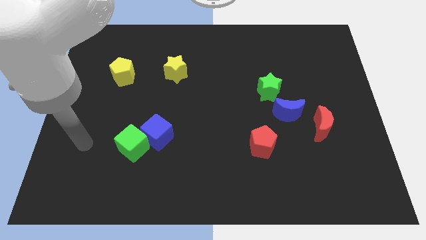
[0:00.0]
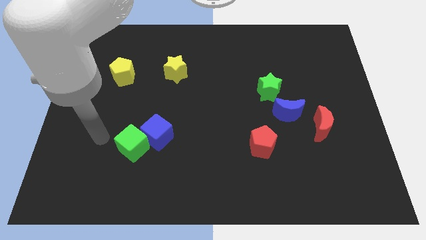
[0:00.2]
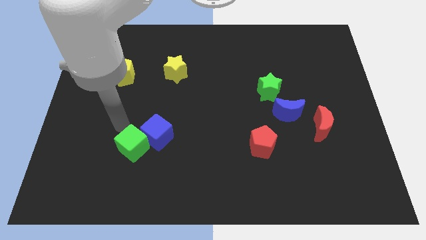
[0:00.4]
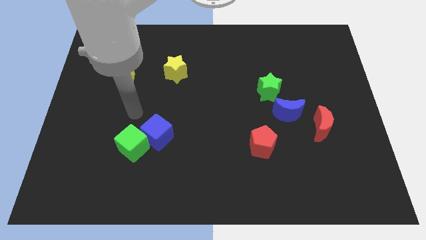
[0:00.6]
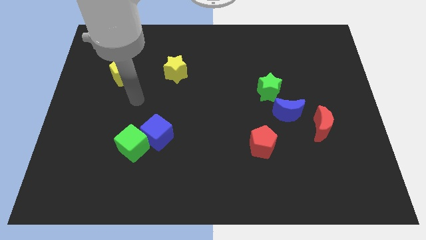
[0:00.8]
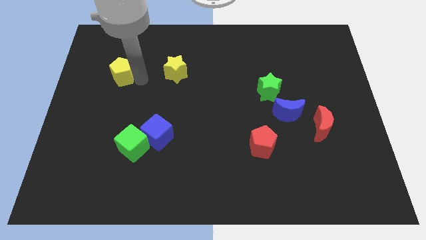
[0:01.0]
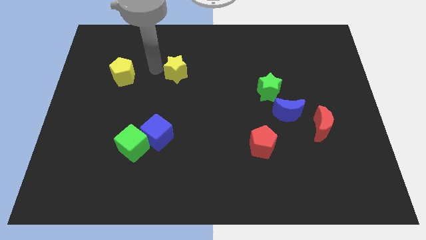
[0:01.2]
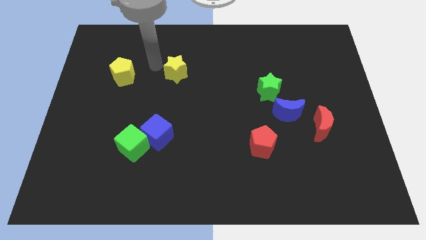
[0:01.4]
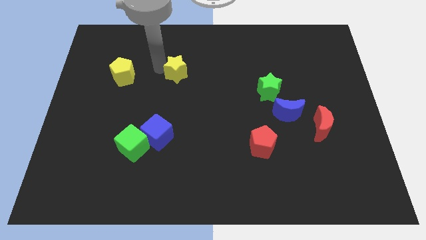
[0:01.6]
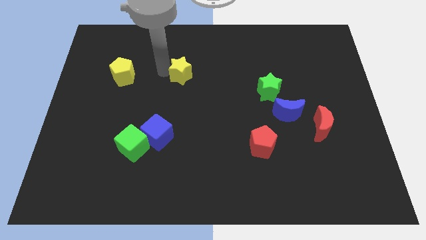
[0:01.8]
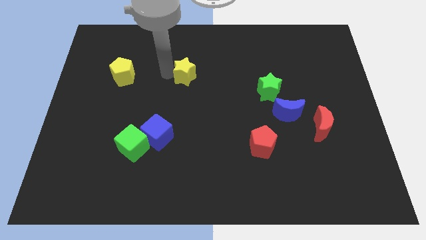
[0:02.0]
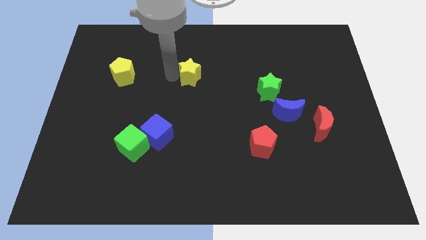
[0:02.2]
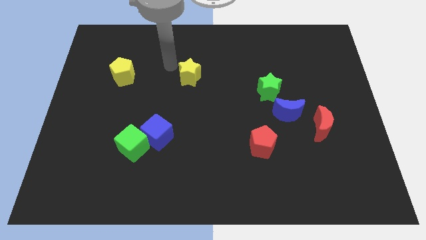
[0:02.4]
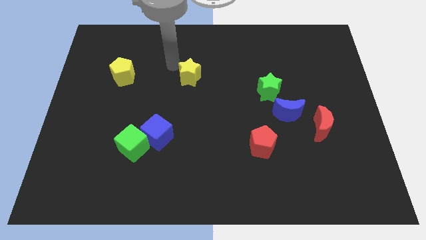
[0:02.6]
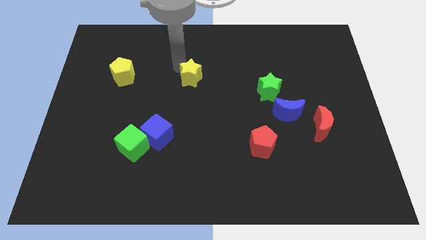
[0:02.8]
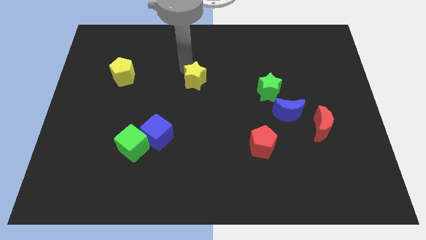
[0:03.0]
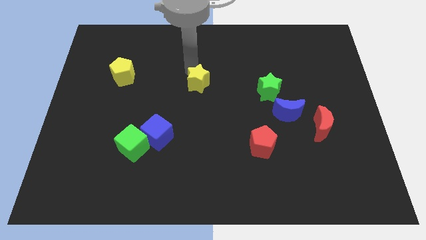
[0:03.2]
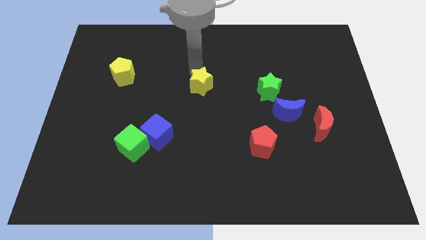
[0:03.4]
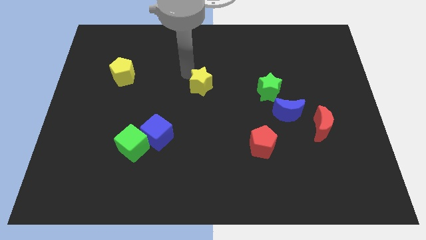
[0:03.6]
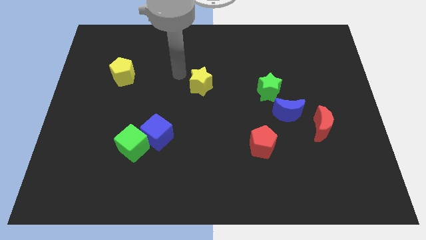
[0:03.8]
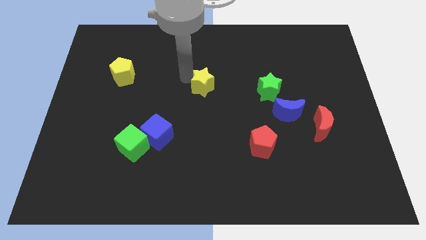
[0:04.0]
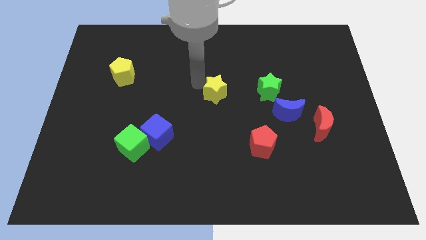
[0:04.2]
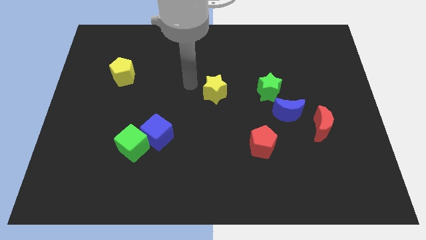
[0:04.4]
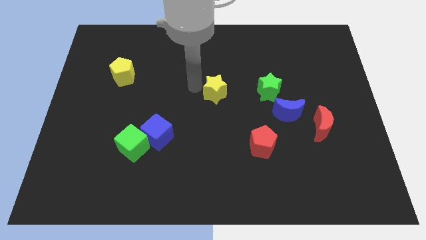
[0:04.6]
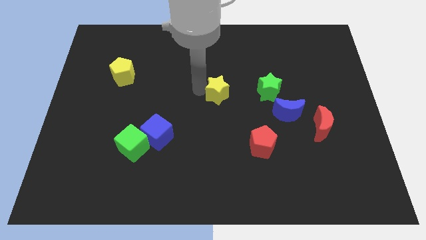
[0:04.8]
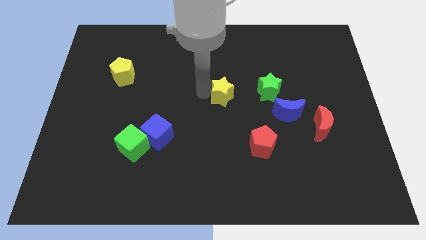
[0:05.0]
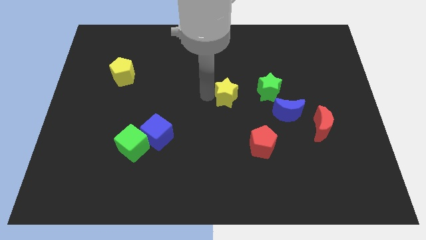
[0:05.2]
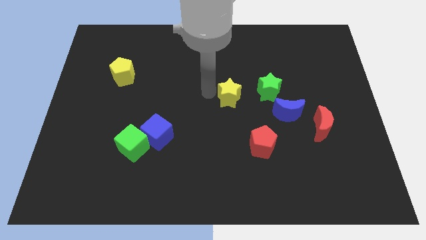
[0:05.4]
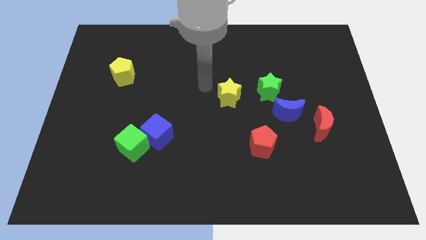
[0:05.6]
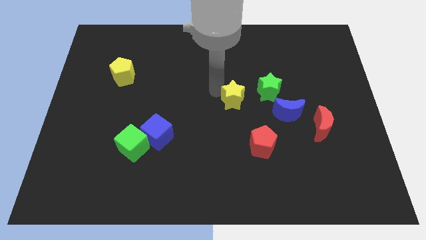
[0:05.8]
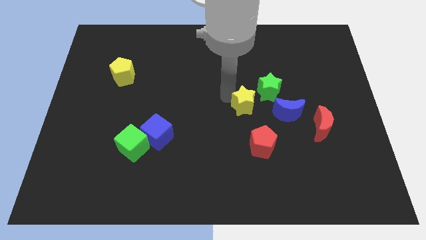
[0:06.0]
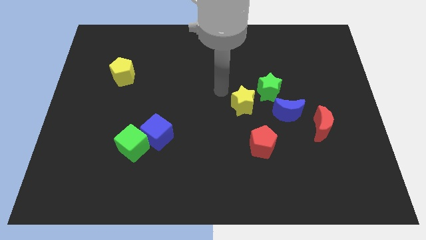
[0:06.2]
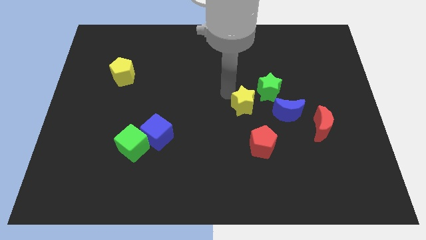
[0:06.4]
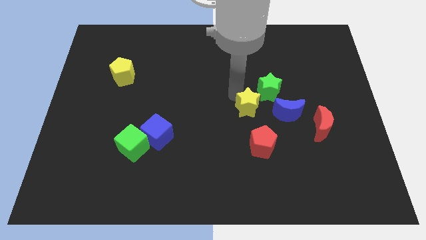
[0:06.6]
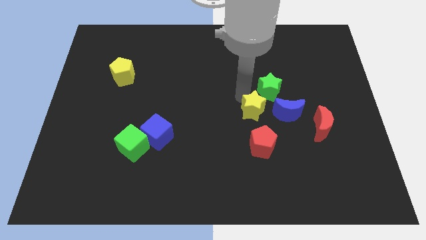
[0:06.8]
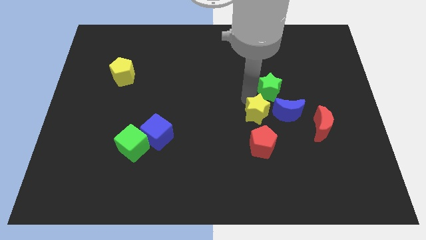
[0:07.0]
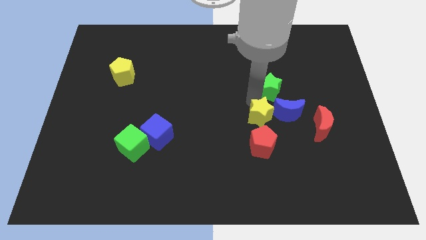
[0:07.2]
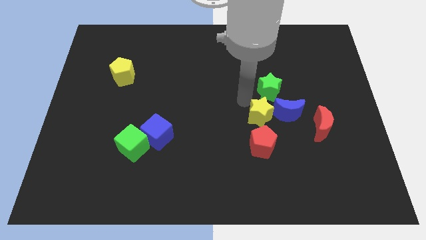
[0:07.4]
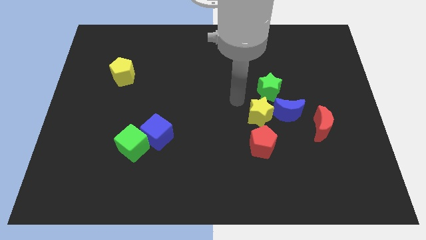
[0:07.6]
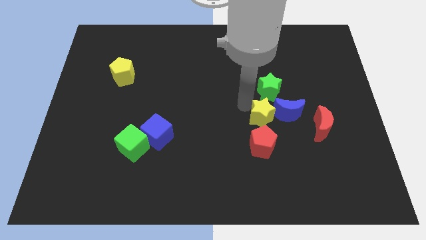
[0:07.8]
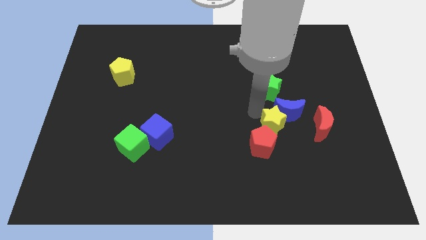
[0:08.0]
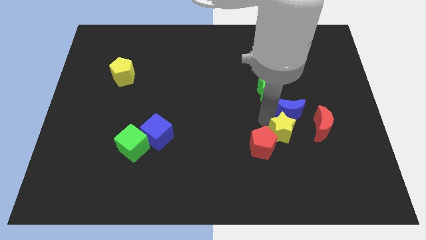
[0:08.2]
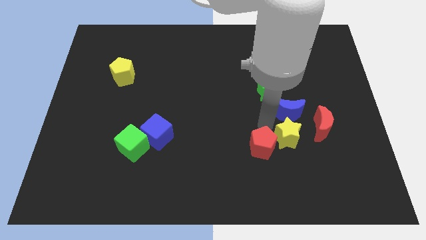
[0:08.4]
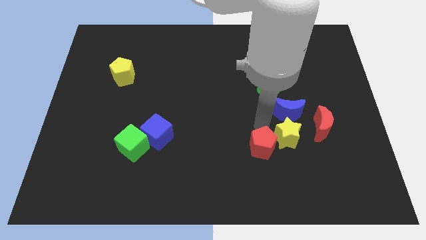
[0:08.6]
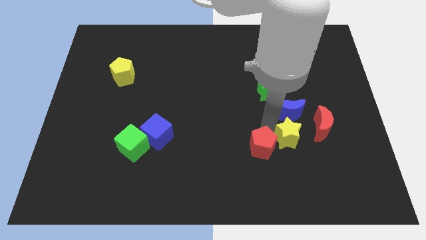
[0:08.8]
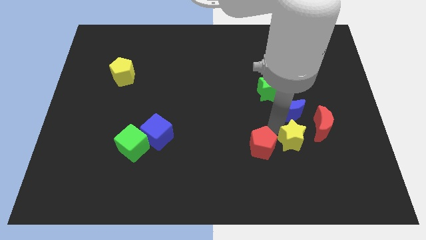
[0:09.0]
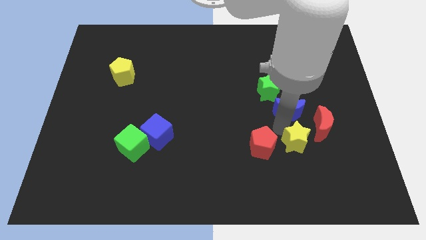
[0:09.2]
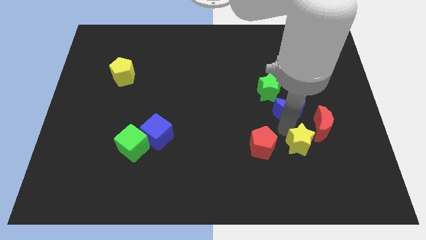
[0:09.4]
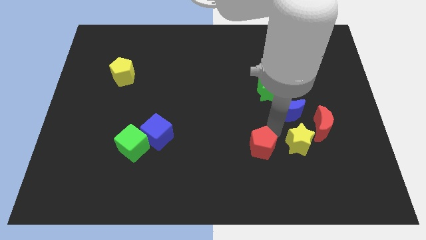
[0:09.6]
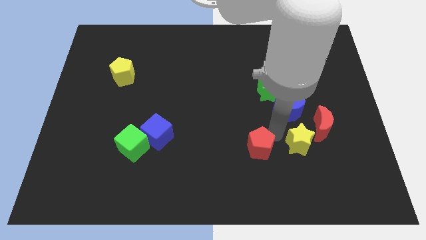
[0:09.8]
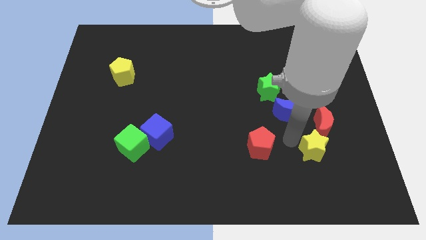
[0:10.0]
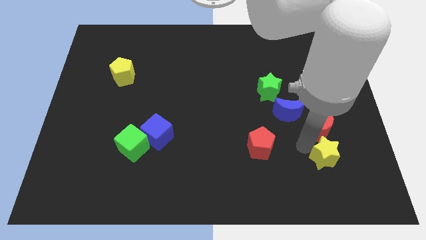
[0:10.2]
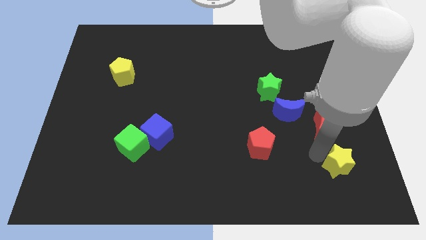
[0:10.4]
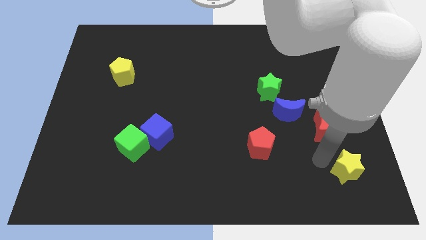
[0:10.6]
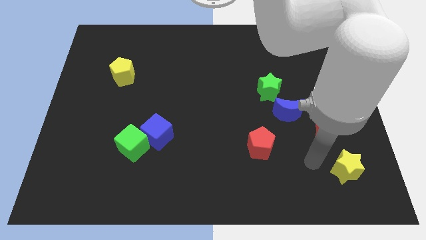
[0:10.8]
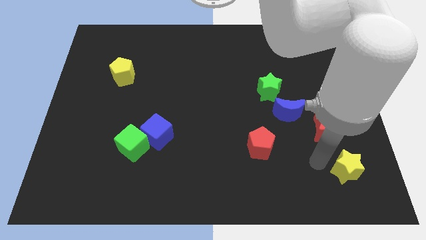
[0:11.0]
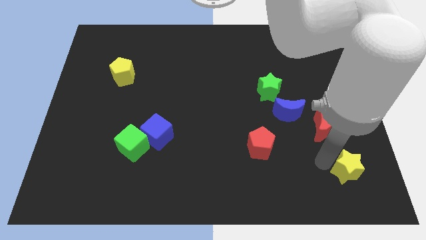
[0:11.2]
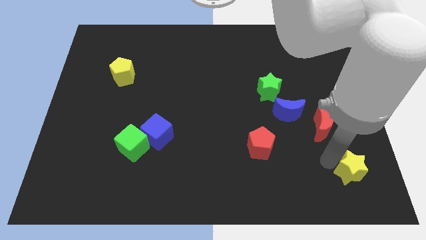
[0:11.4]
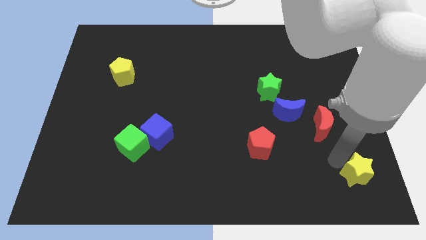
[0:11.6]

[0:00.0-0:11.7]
slide the yellow star to the lower right corner
